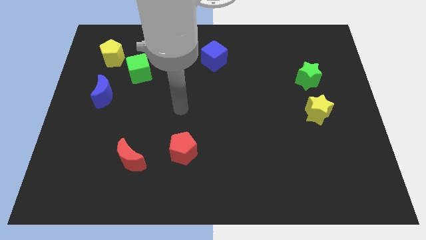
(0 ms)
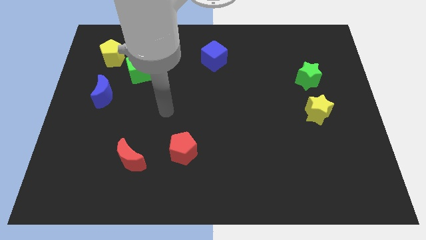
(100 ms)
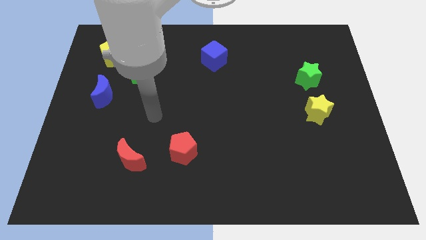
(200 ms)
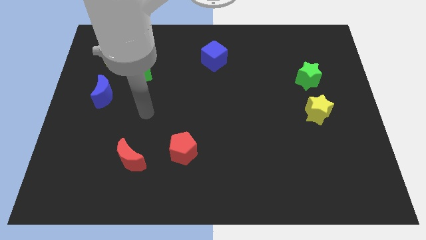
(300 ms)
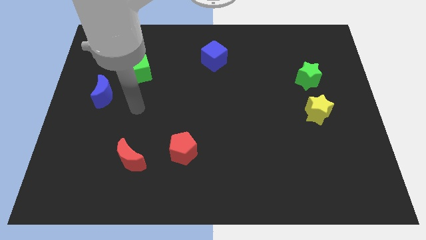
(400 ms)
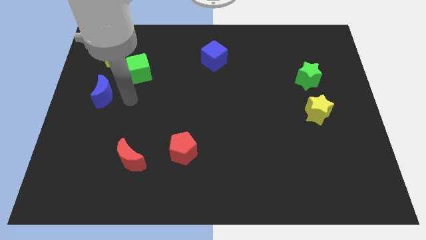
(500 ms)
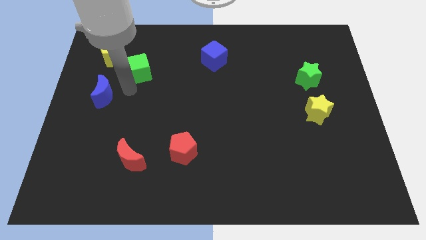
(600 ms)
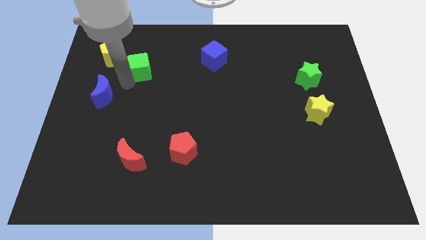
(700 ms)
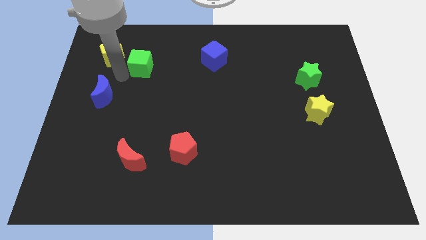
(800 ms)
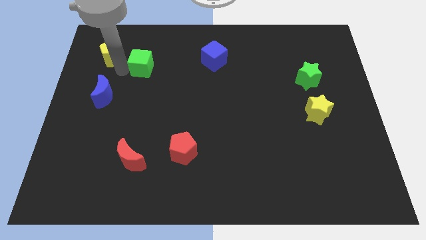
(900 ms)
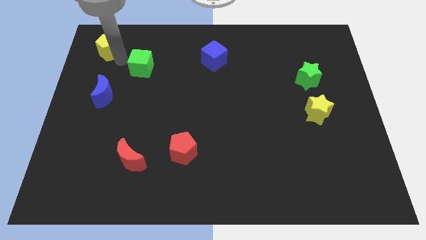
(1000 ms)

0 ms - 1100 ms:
move the green cube away from the yellow pentagon

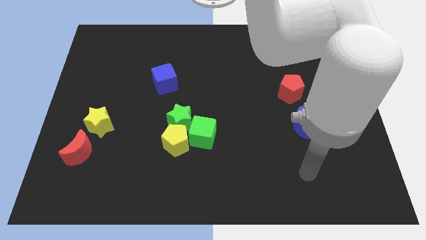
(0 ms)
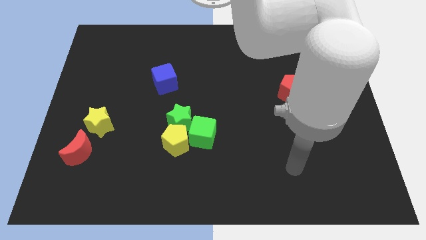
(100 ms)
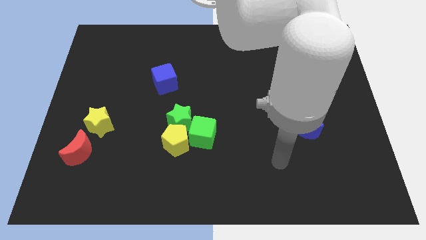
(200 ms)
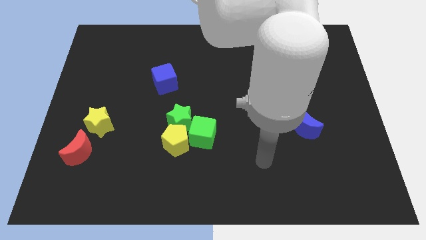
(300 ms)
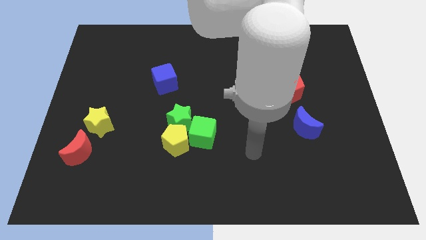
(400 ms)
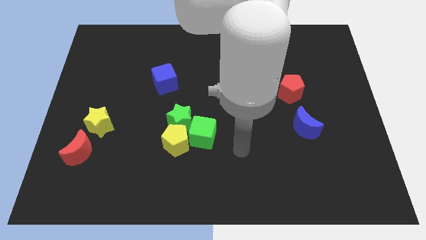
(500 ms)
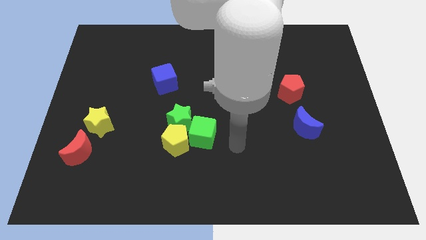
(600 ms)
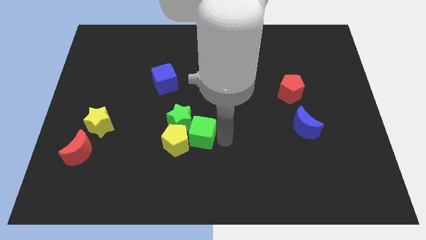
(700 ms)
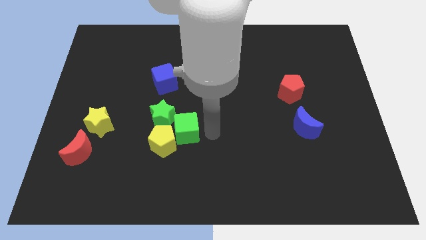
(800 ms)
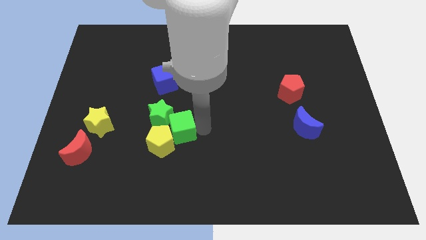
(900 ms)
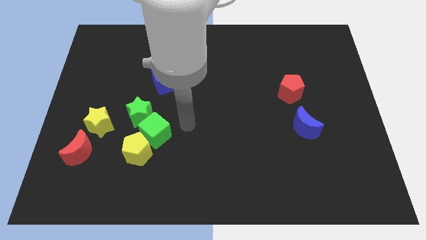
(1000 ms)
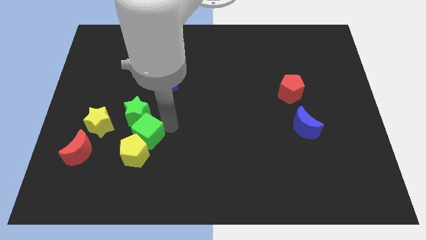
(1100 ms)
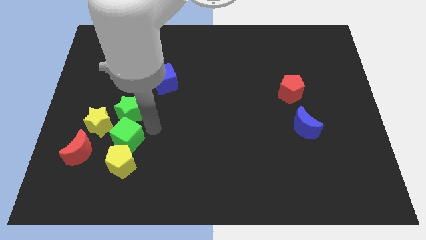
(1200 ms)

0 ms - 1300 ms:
move the yellow pentagon away from the green star and green cube

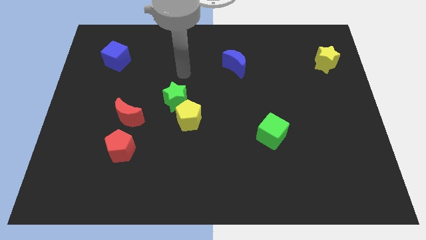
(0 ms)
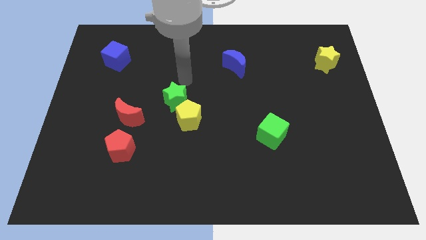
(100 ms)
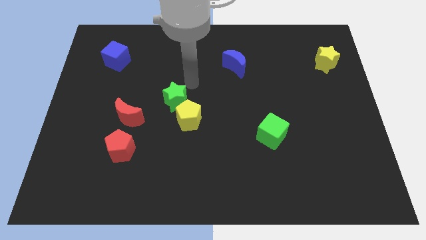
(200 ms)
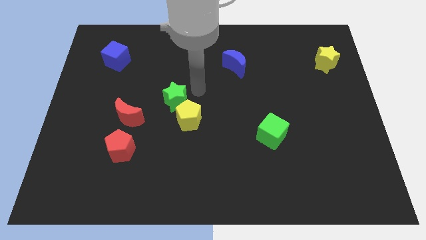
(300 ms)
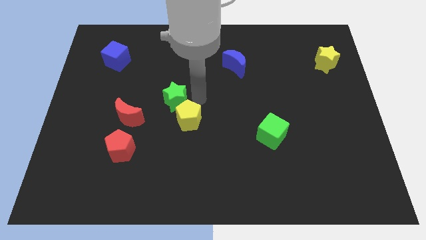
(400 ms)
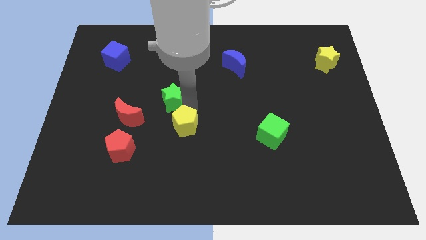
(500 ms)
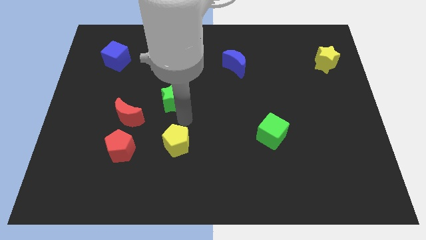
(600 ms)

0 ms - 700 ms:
move the green star away from the yellow pentagon

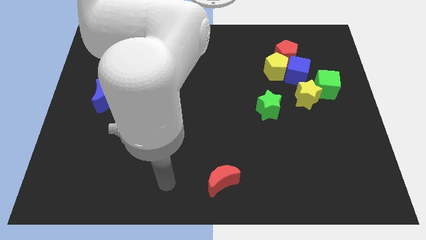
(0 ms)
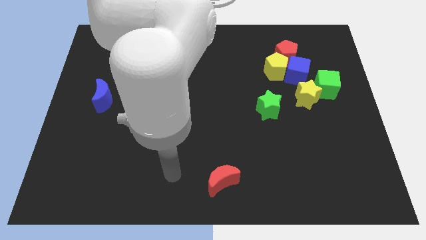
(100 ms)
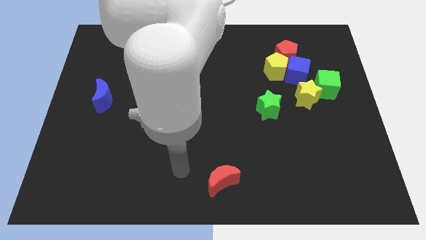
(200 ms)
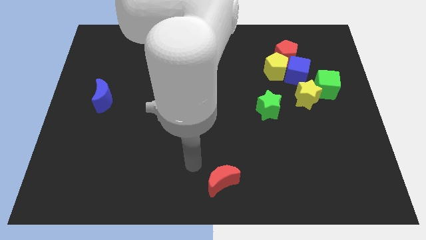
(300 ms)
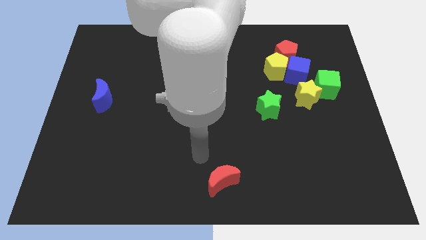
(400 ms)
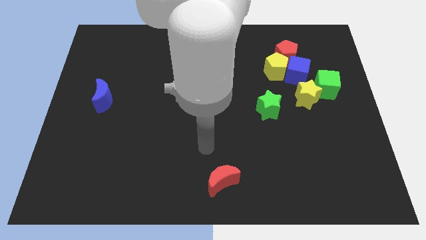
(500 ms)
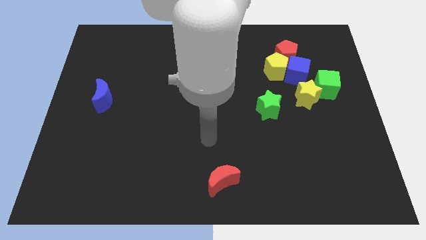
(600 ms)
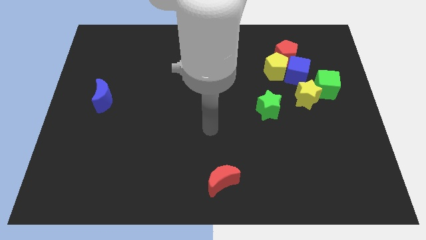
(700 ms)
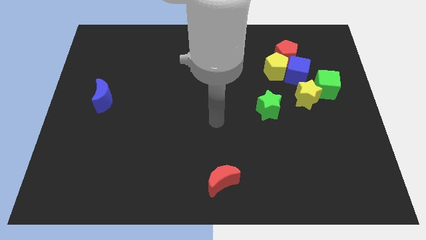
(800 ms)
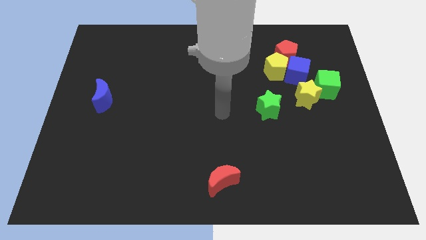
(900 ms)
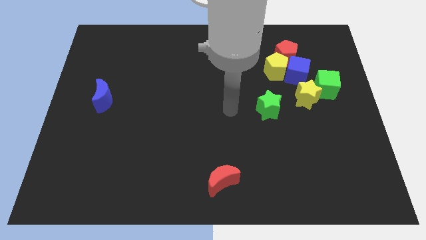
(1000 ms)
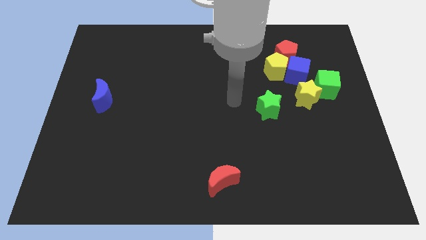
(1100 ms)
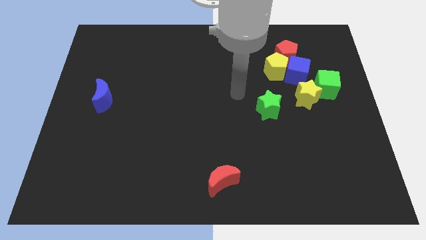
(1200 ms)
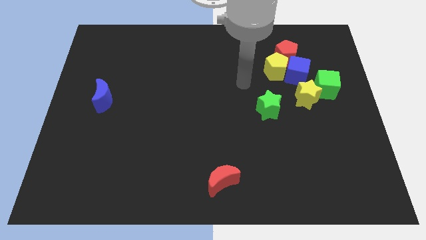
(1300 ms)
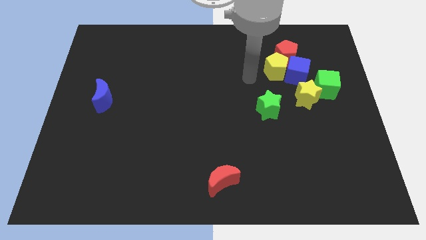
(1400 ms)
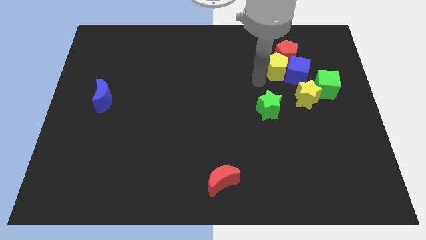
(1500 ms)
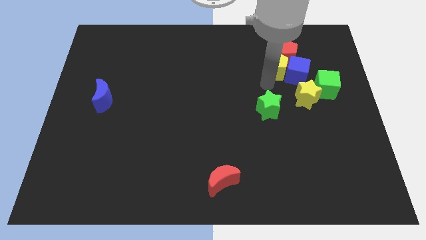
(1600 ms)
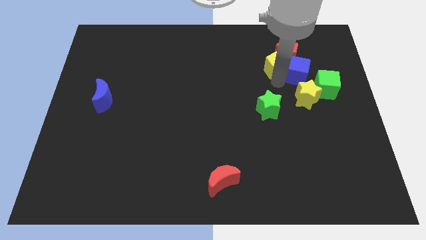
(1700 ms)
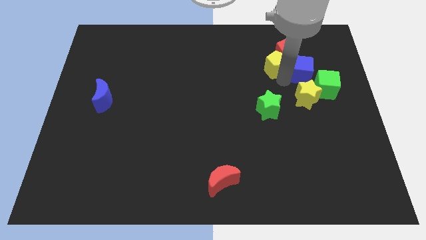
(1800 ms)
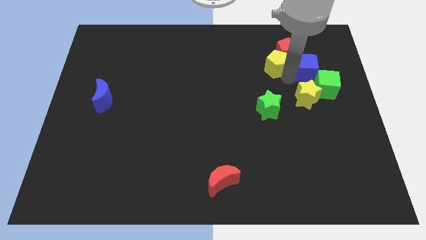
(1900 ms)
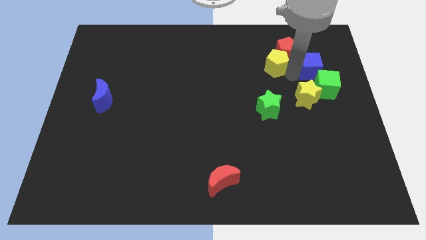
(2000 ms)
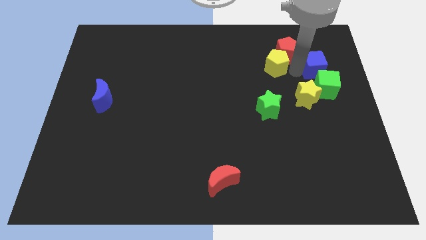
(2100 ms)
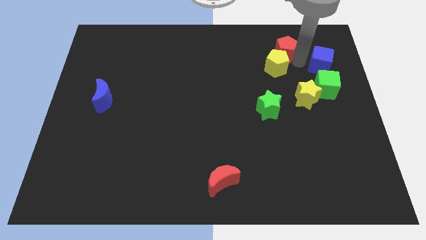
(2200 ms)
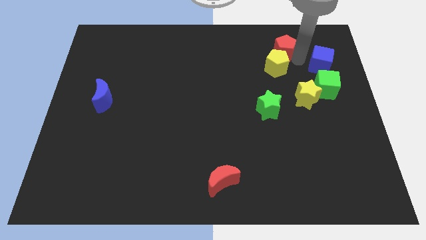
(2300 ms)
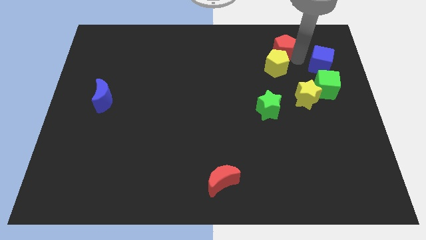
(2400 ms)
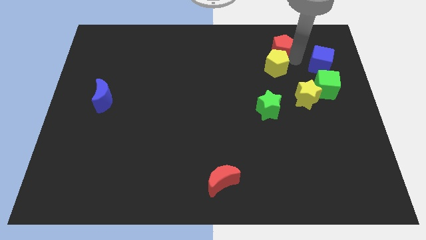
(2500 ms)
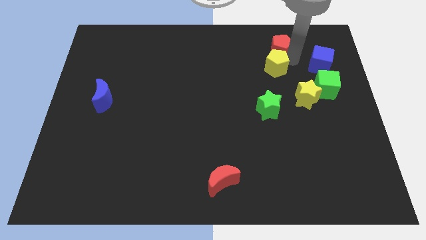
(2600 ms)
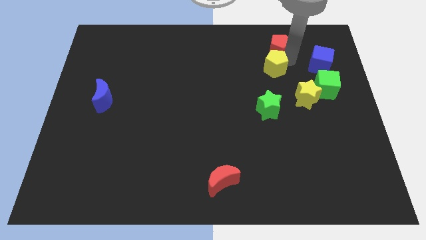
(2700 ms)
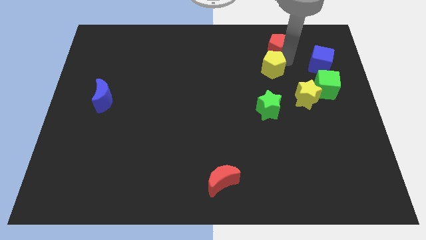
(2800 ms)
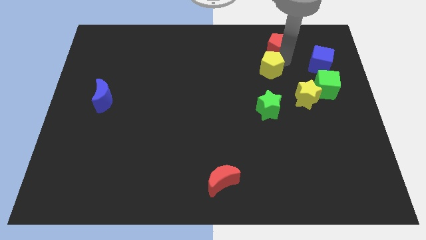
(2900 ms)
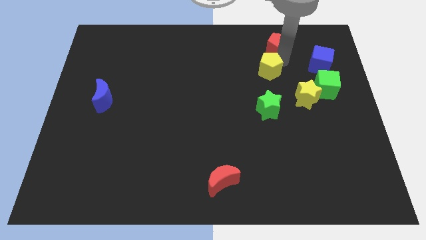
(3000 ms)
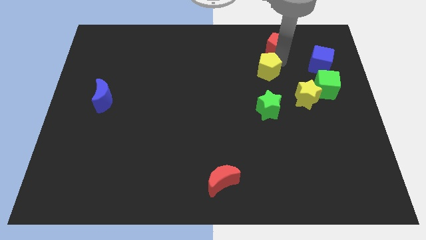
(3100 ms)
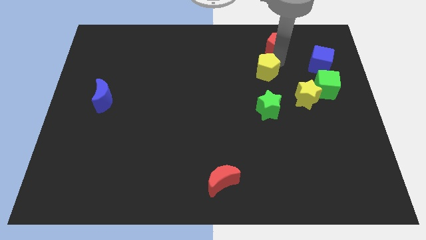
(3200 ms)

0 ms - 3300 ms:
separate the yellow pentagon from the blue cube and red pentagon

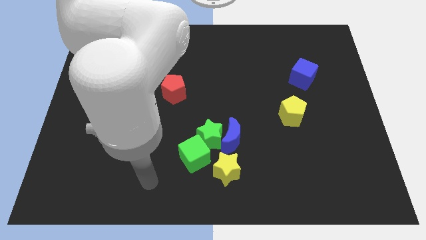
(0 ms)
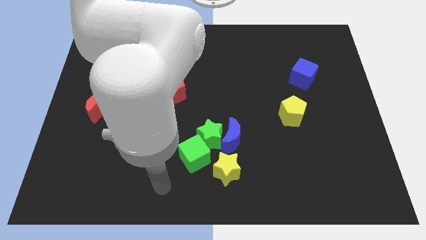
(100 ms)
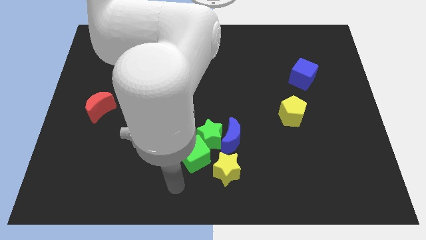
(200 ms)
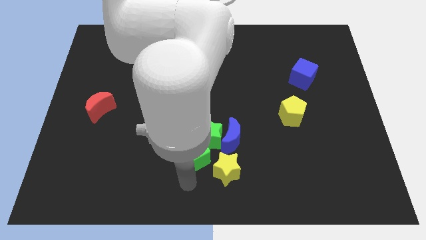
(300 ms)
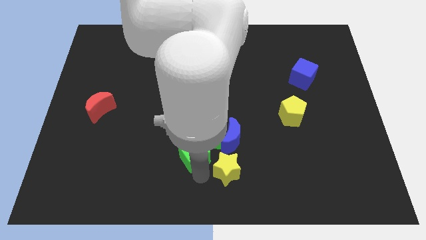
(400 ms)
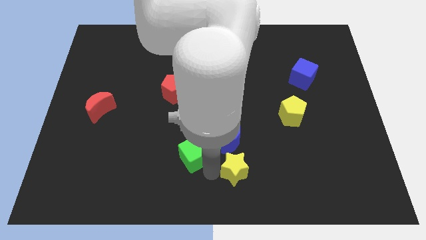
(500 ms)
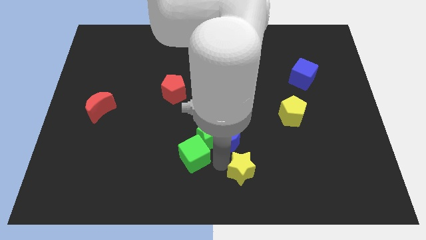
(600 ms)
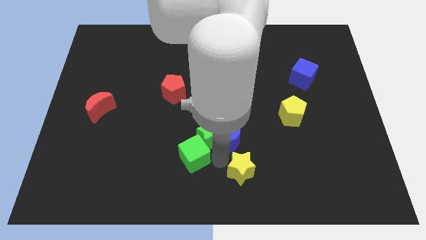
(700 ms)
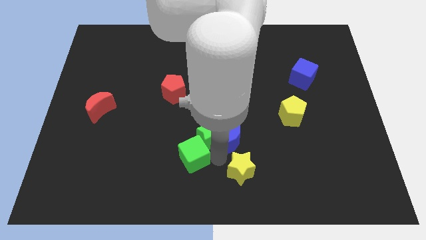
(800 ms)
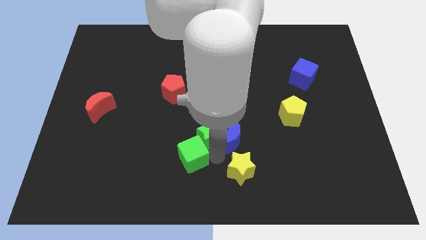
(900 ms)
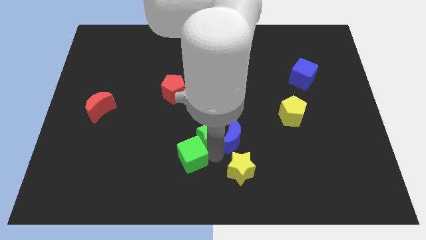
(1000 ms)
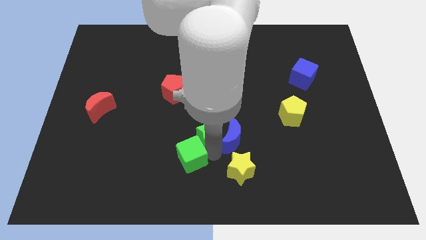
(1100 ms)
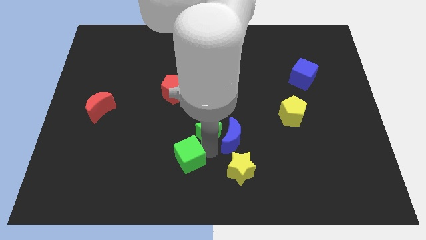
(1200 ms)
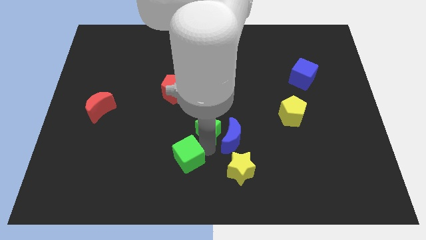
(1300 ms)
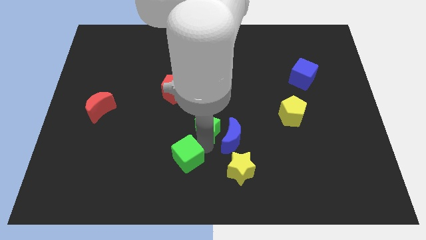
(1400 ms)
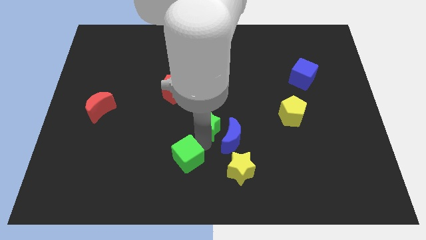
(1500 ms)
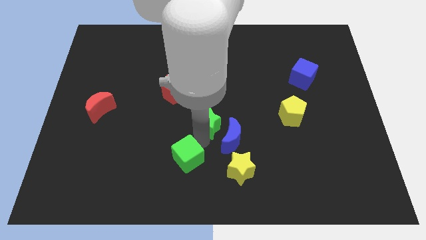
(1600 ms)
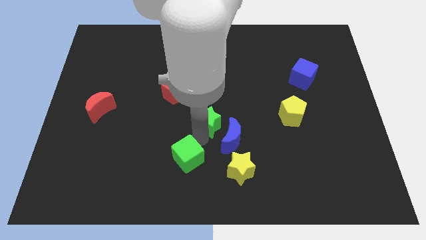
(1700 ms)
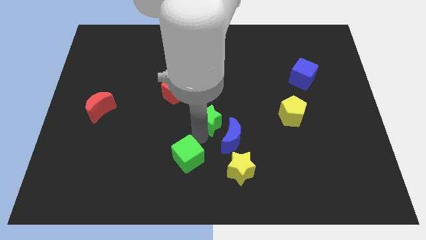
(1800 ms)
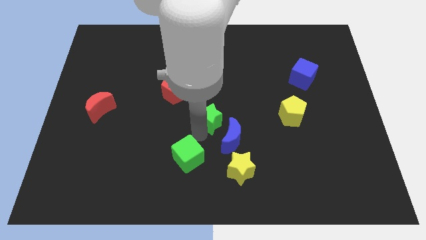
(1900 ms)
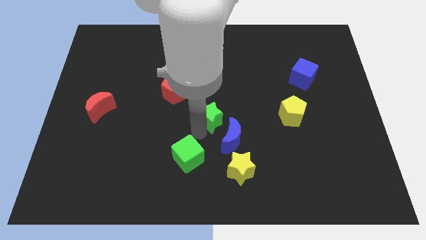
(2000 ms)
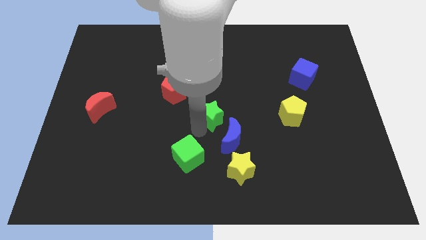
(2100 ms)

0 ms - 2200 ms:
separate the green star from the blue moon, green cube, and yellow star

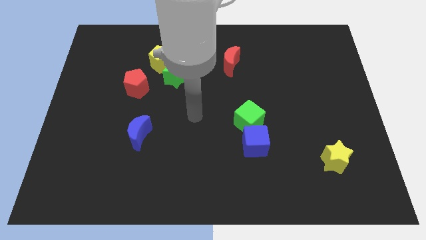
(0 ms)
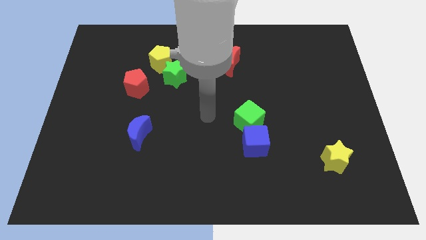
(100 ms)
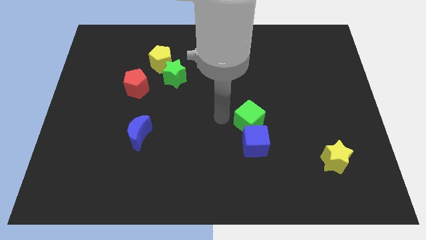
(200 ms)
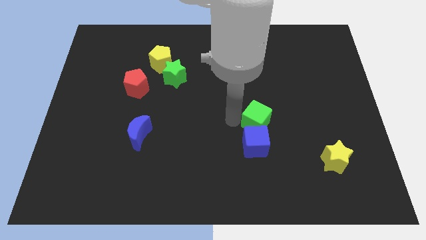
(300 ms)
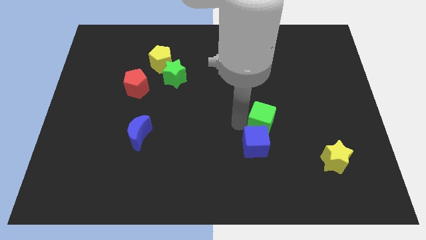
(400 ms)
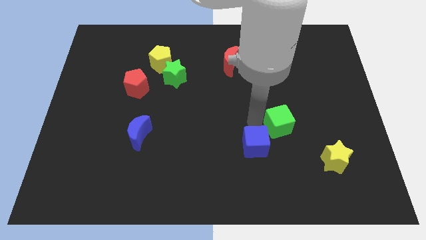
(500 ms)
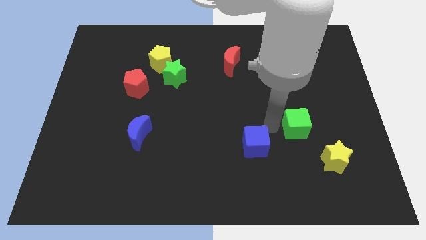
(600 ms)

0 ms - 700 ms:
move the blue cube away from the green cube
